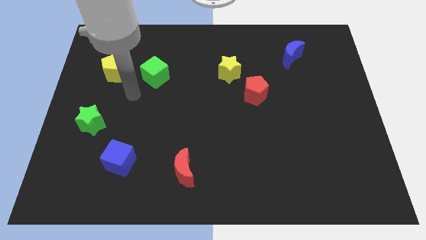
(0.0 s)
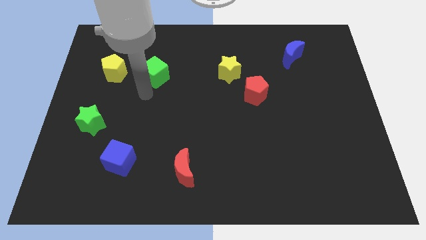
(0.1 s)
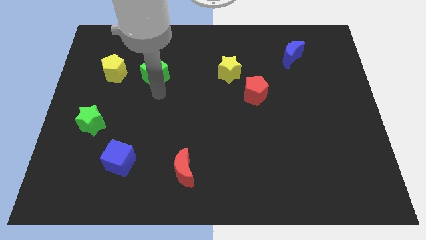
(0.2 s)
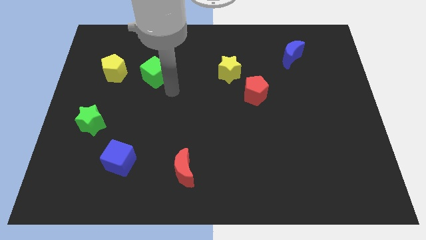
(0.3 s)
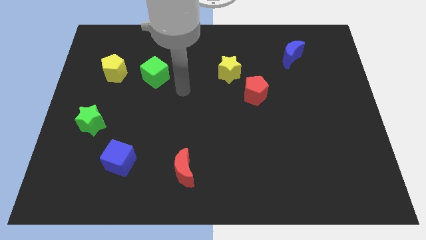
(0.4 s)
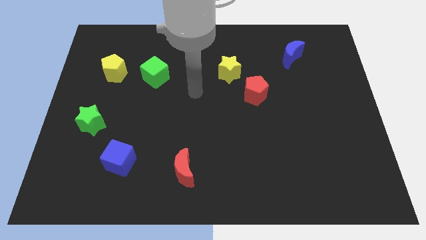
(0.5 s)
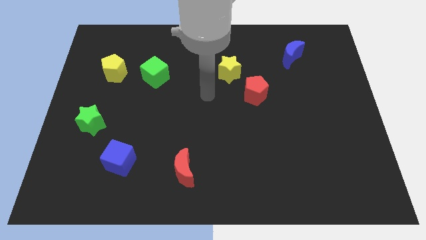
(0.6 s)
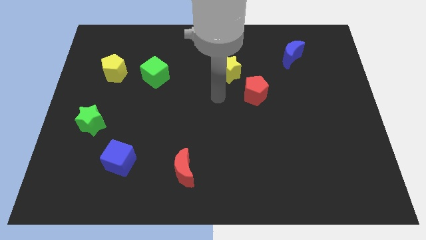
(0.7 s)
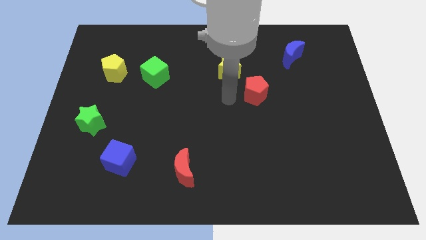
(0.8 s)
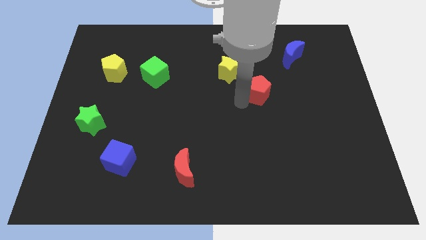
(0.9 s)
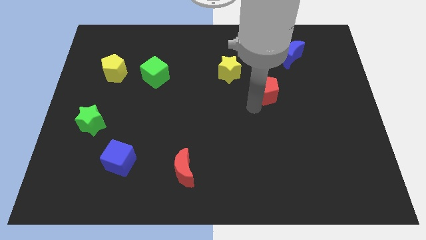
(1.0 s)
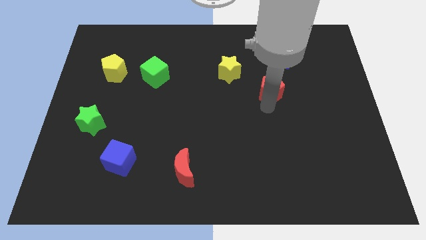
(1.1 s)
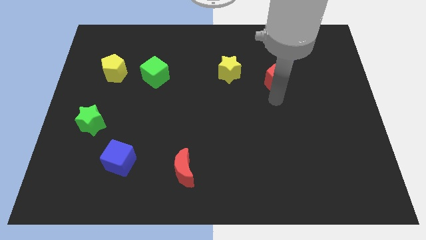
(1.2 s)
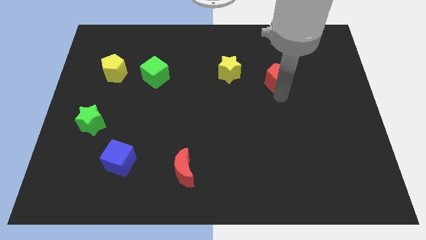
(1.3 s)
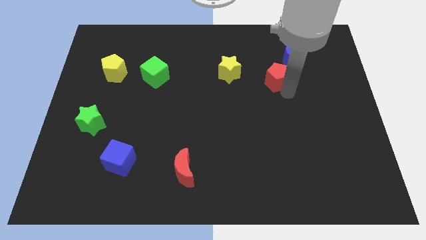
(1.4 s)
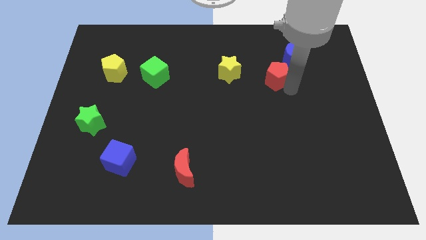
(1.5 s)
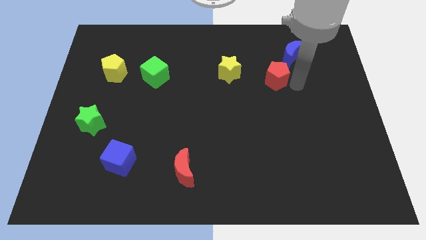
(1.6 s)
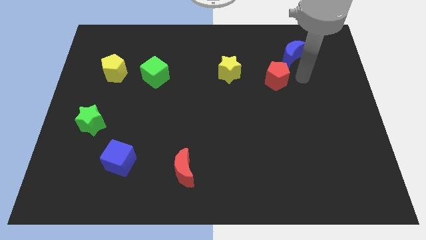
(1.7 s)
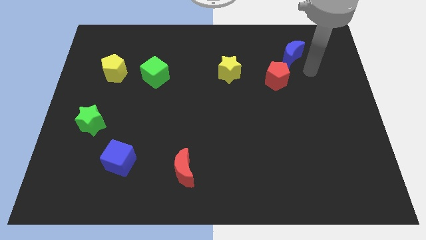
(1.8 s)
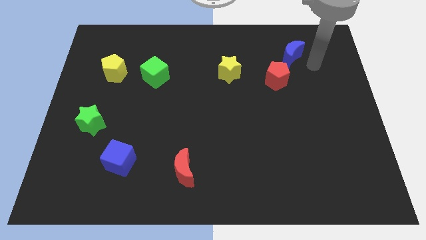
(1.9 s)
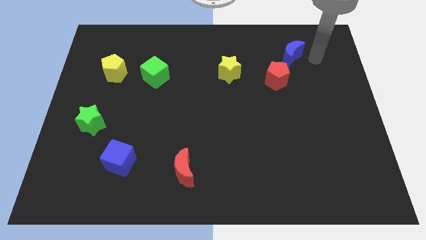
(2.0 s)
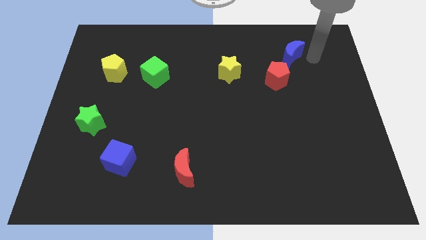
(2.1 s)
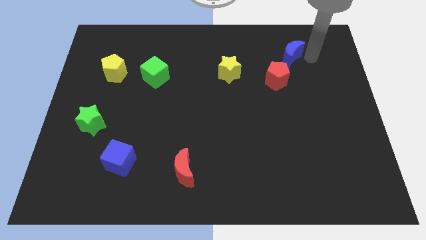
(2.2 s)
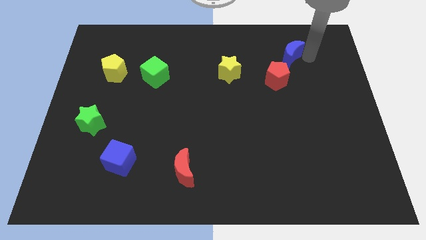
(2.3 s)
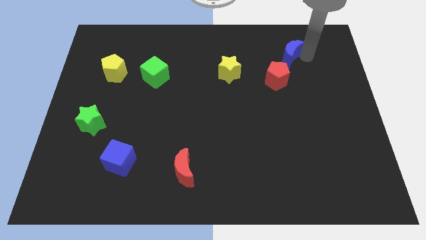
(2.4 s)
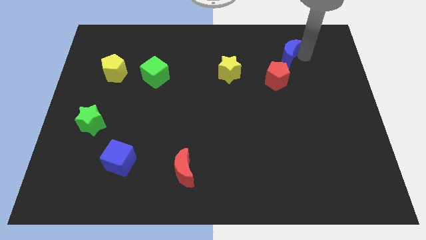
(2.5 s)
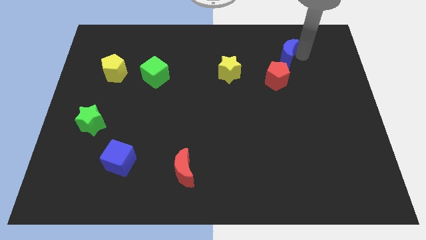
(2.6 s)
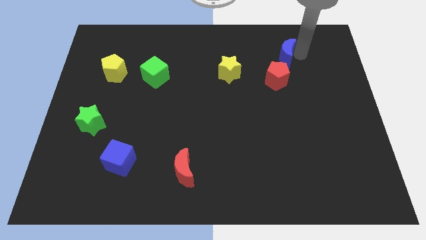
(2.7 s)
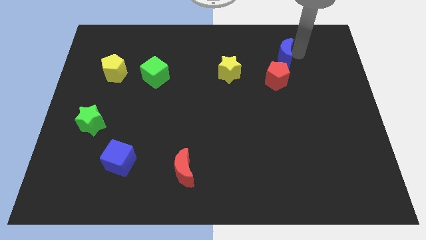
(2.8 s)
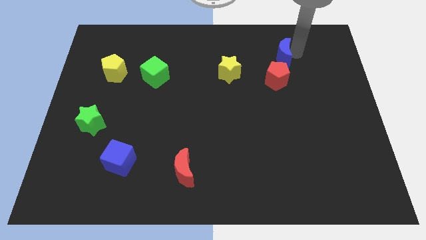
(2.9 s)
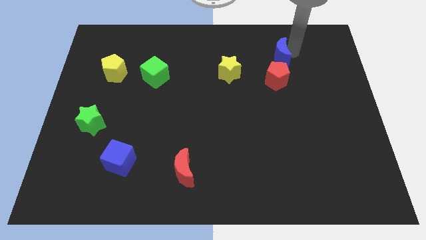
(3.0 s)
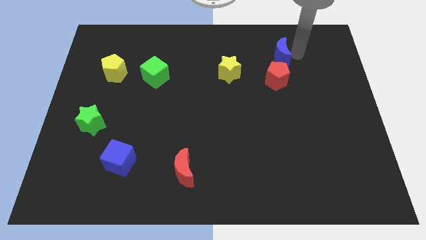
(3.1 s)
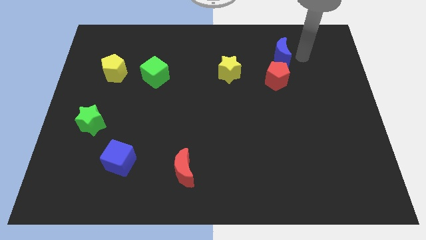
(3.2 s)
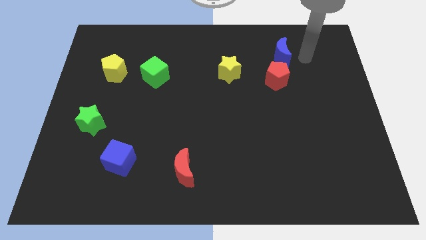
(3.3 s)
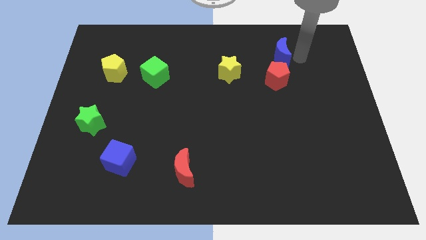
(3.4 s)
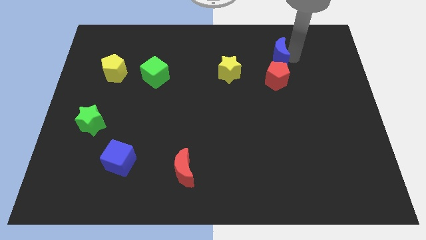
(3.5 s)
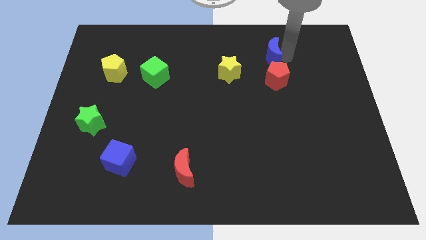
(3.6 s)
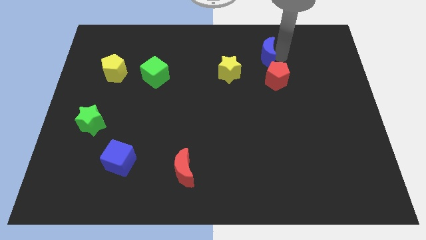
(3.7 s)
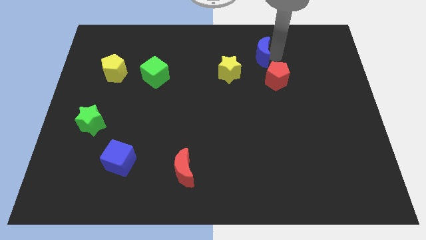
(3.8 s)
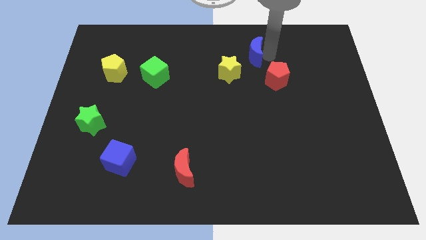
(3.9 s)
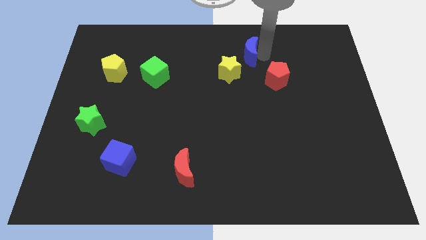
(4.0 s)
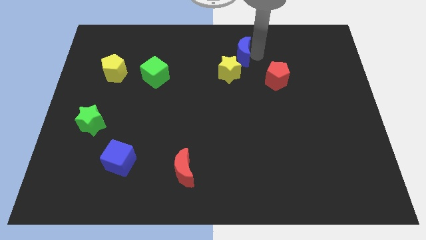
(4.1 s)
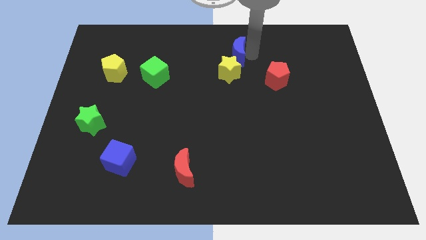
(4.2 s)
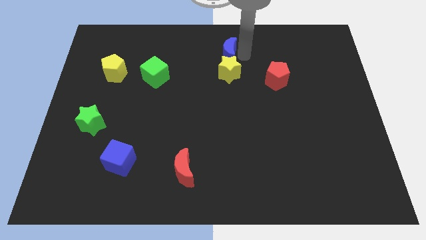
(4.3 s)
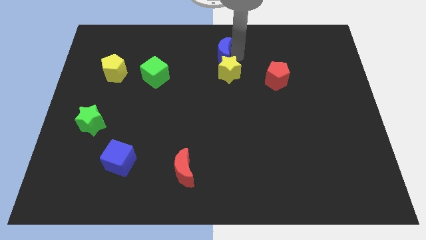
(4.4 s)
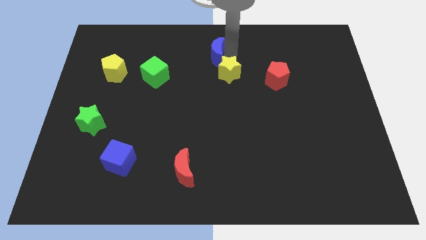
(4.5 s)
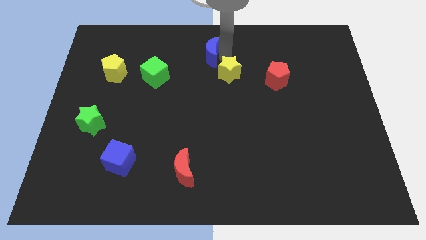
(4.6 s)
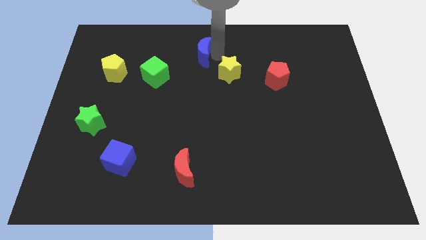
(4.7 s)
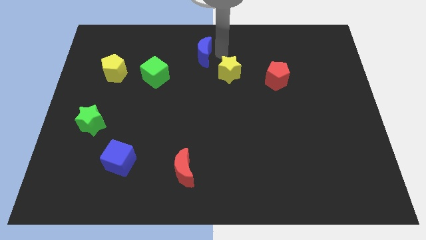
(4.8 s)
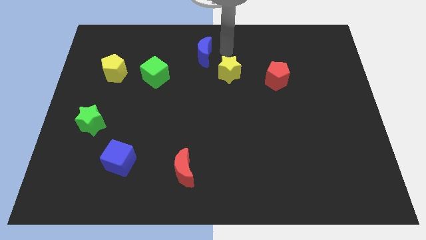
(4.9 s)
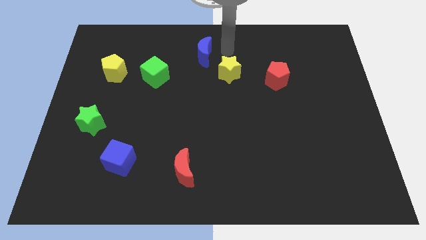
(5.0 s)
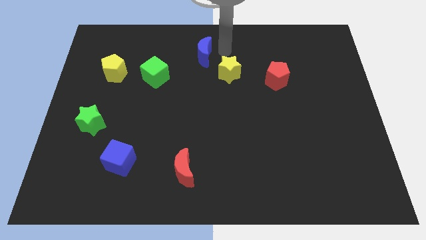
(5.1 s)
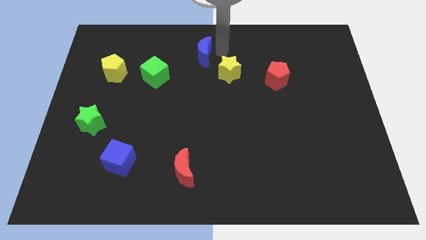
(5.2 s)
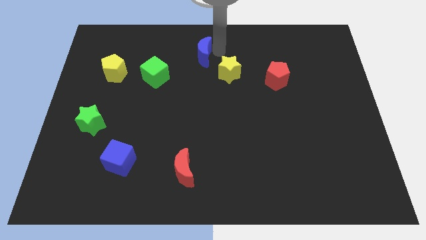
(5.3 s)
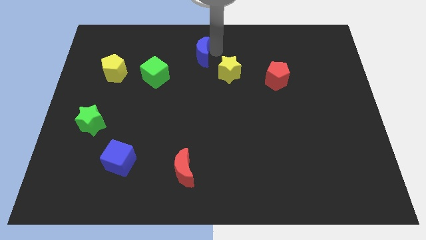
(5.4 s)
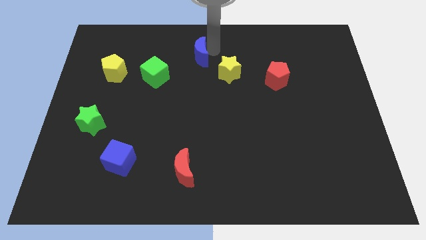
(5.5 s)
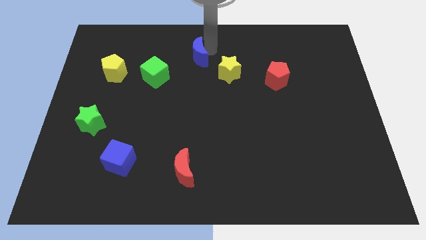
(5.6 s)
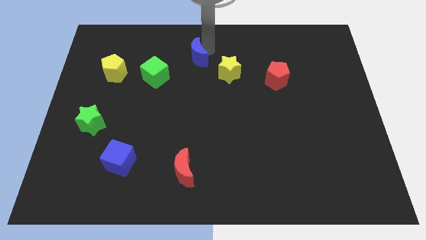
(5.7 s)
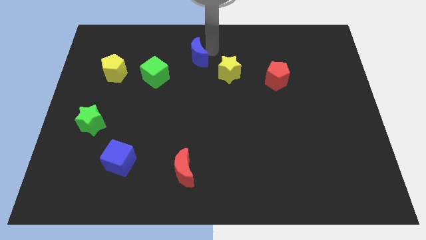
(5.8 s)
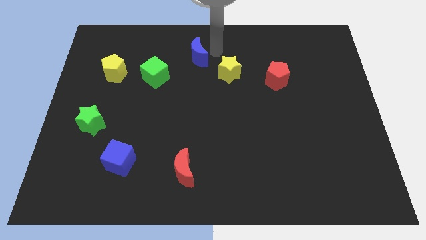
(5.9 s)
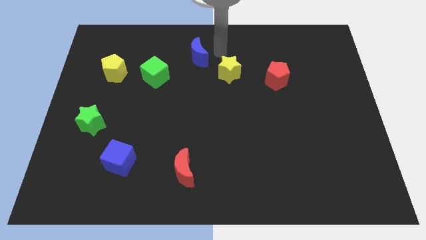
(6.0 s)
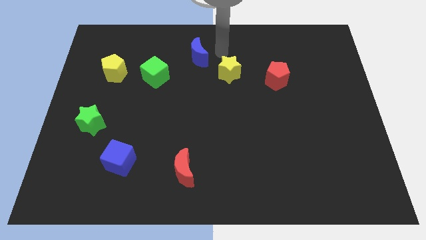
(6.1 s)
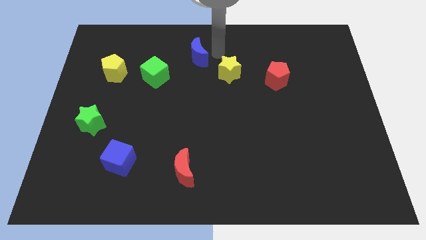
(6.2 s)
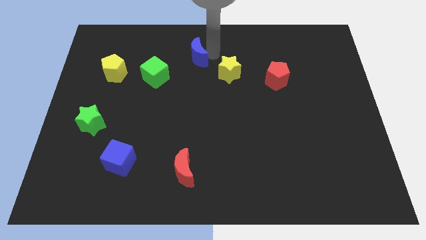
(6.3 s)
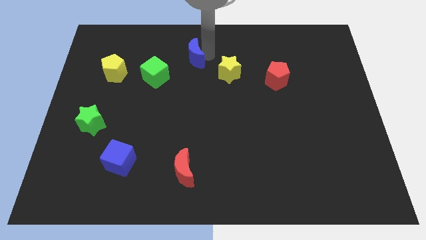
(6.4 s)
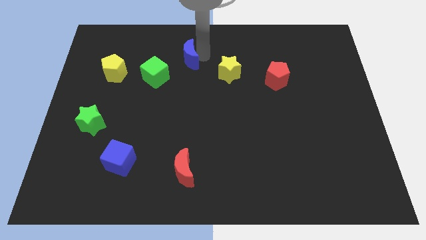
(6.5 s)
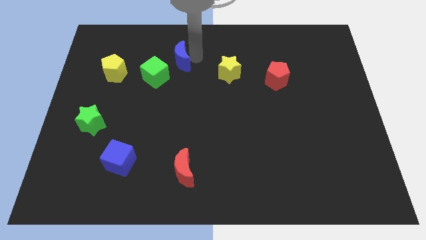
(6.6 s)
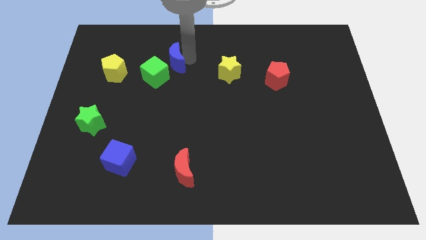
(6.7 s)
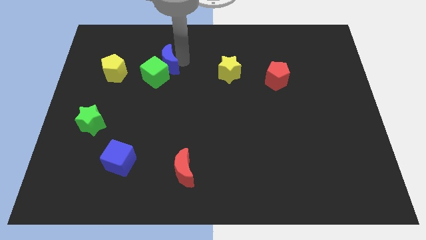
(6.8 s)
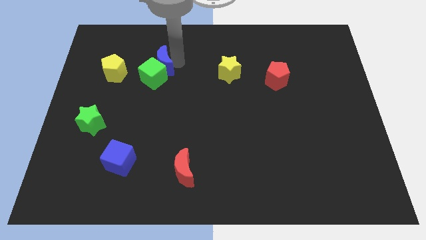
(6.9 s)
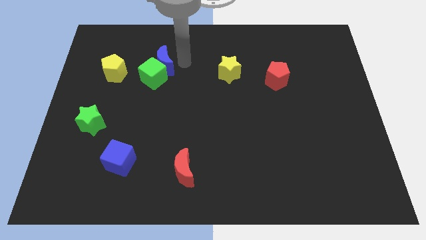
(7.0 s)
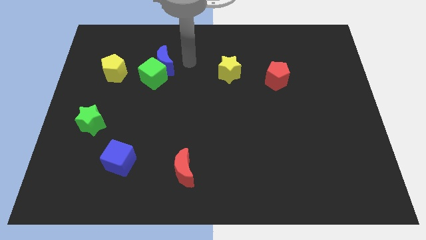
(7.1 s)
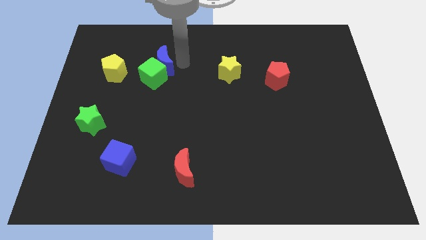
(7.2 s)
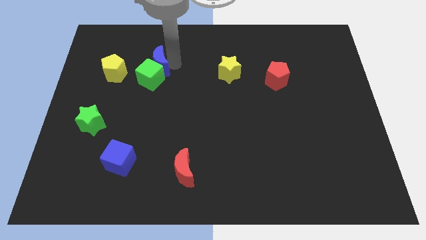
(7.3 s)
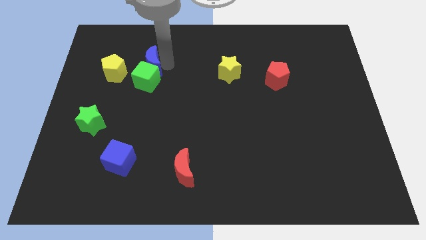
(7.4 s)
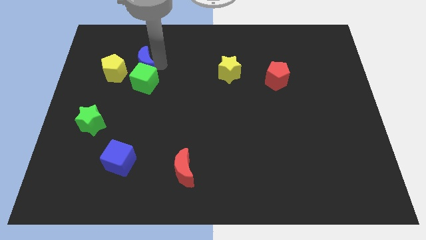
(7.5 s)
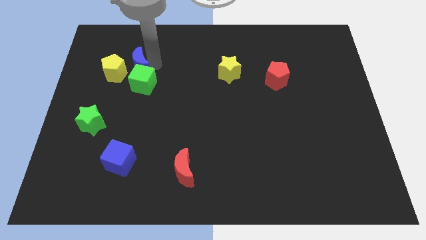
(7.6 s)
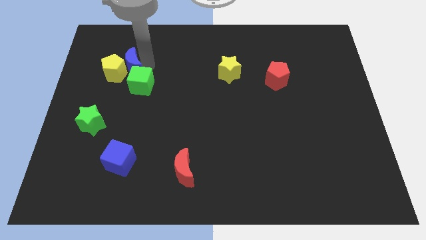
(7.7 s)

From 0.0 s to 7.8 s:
put the blue moon to the yellow pentagon
